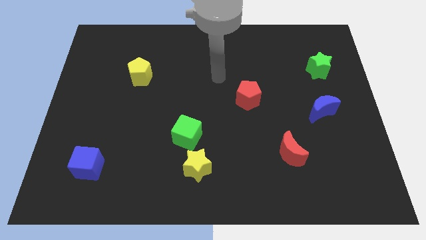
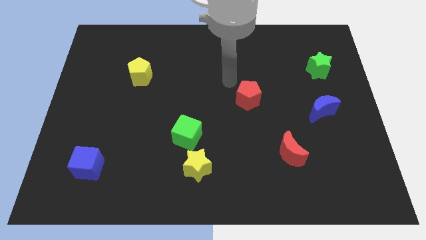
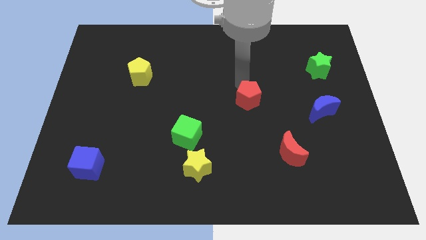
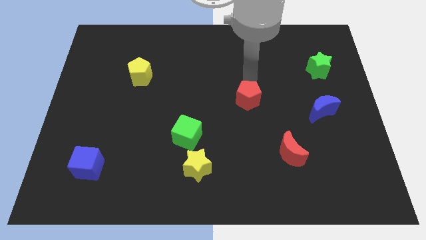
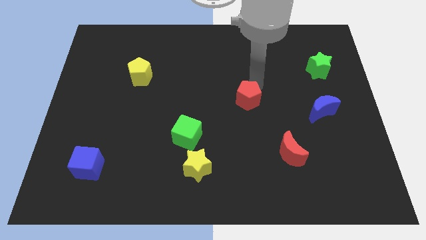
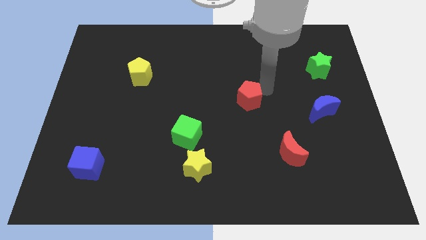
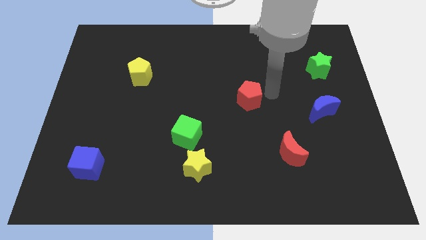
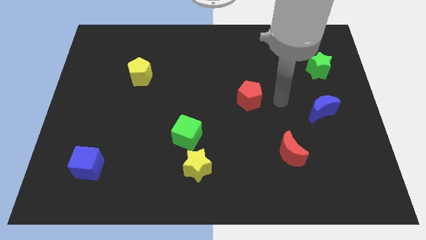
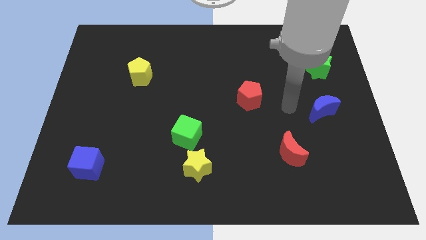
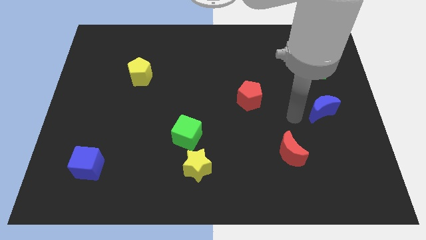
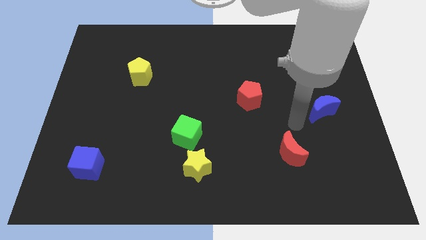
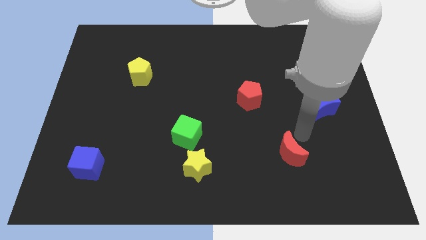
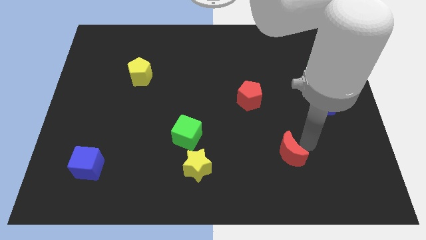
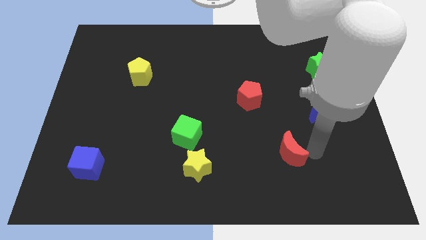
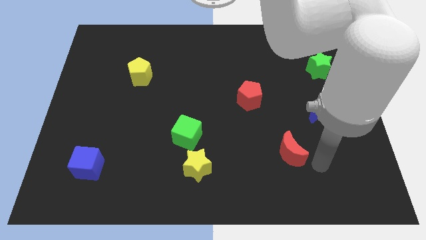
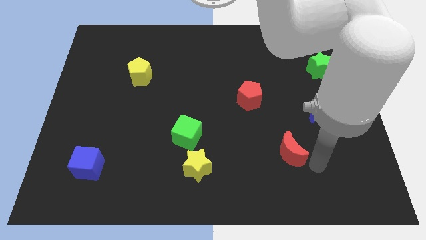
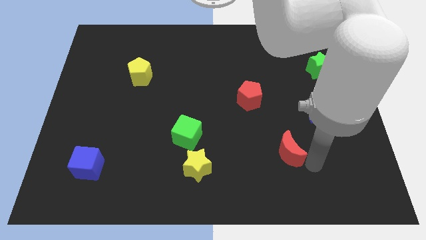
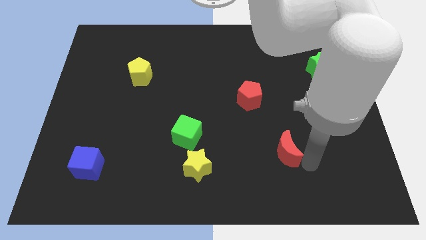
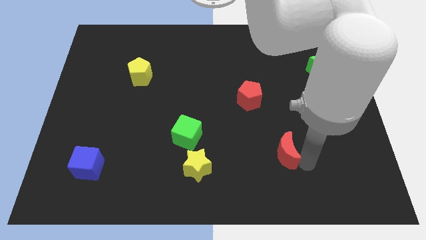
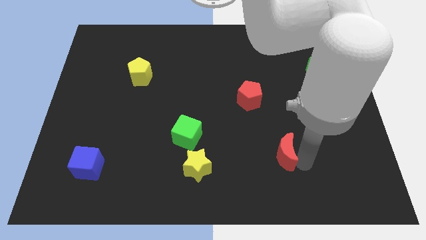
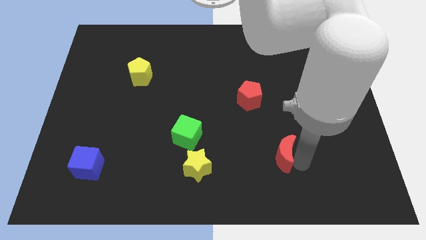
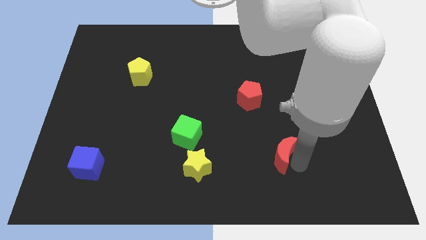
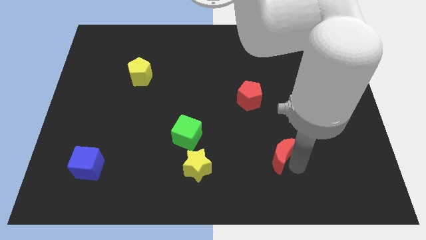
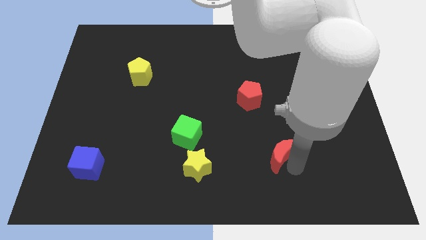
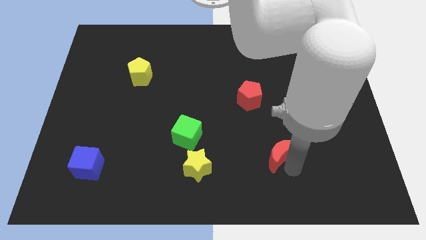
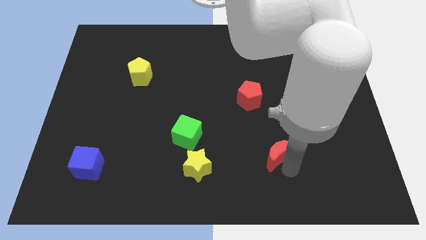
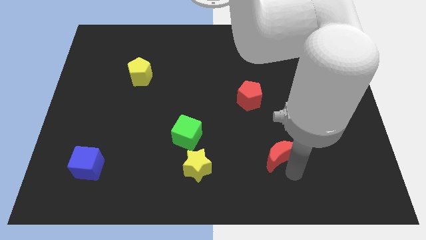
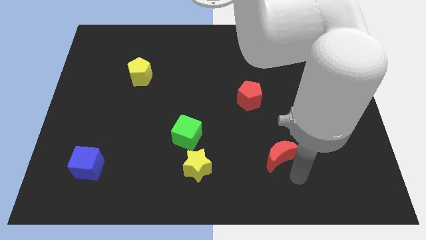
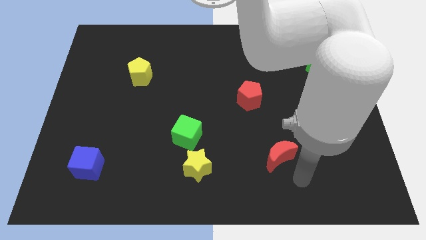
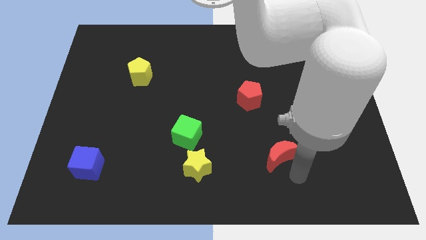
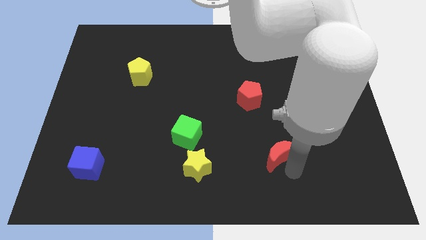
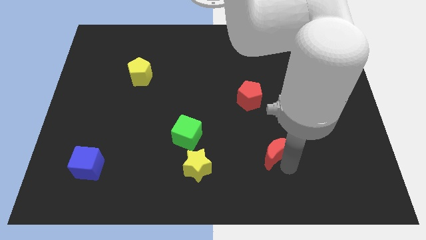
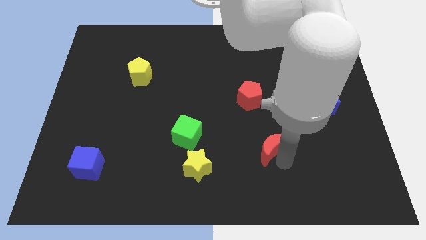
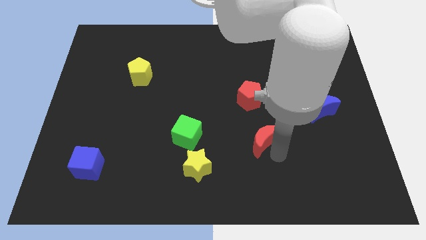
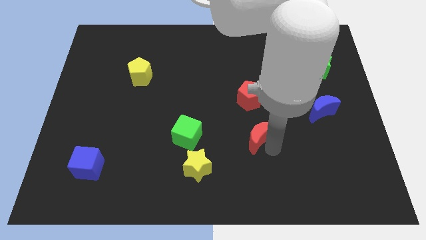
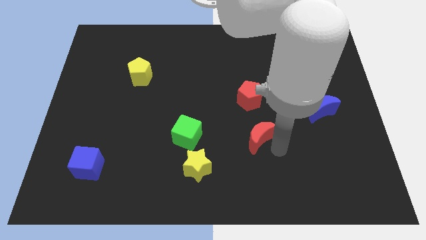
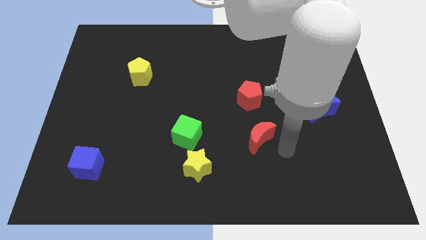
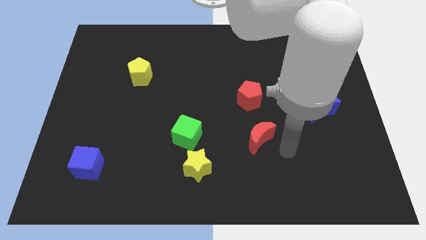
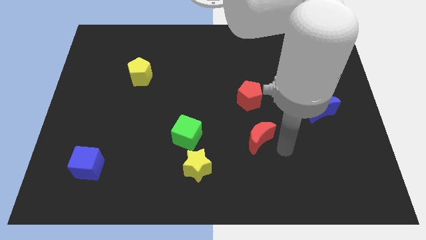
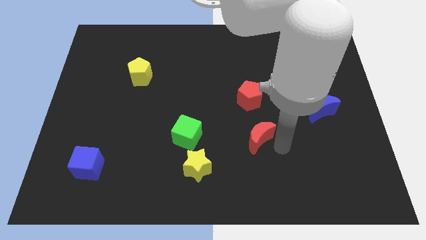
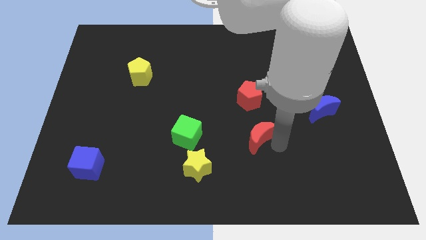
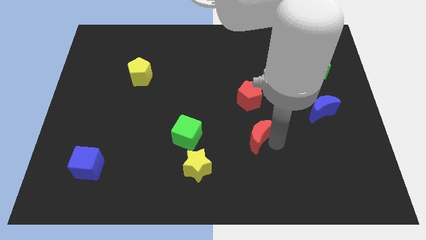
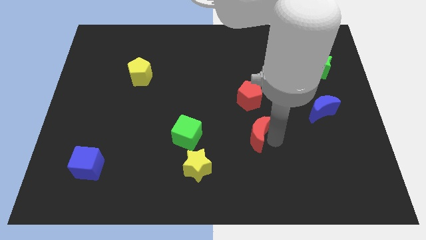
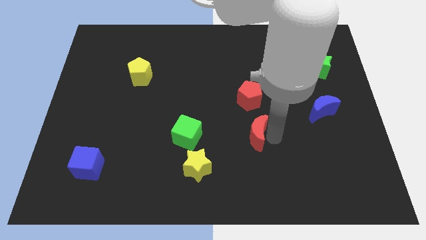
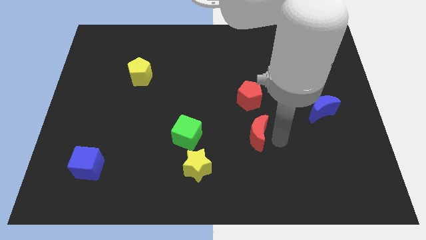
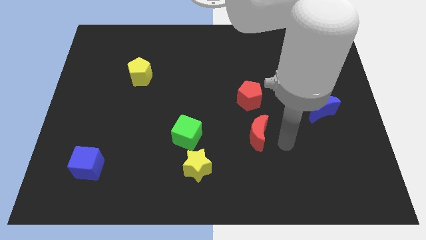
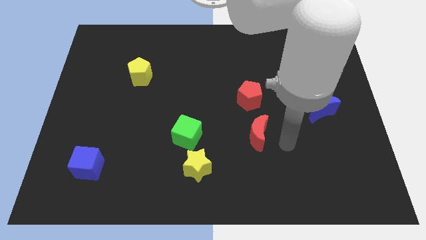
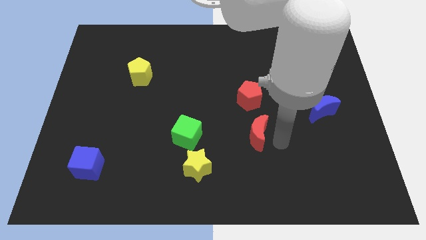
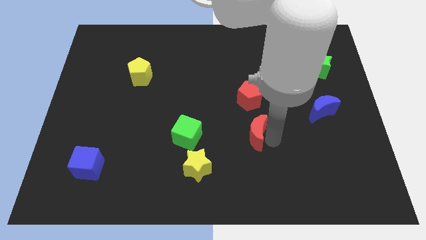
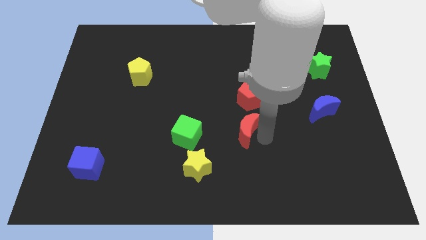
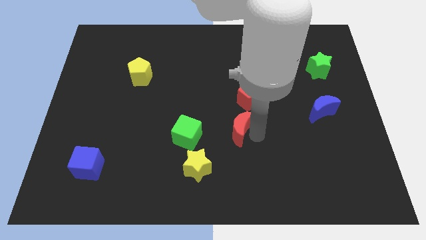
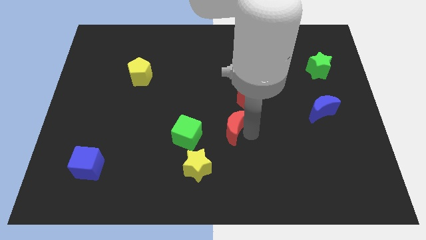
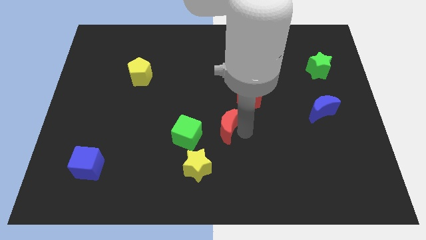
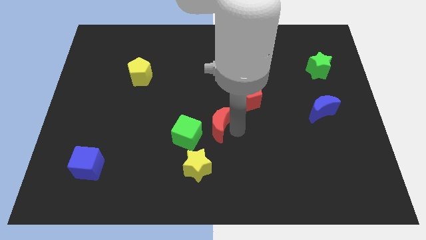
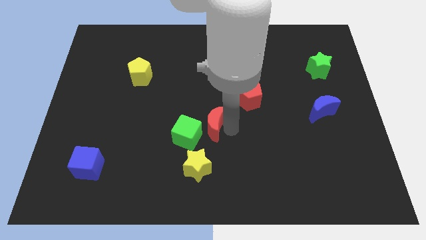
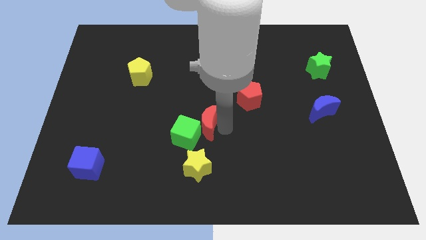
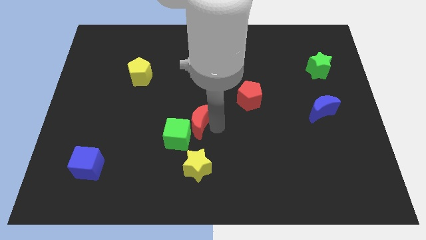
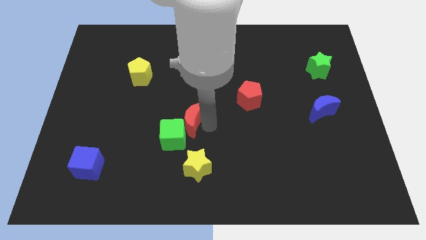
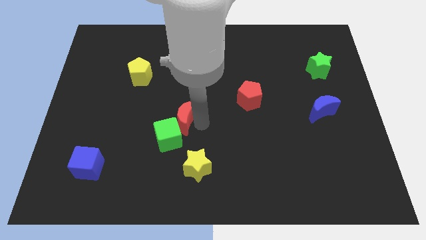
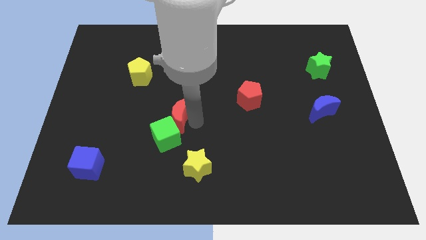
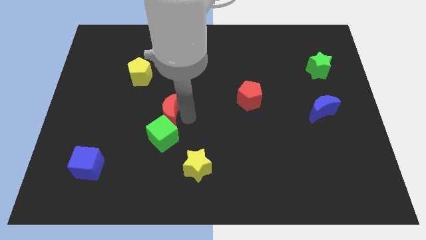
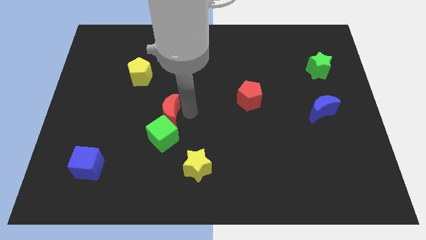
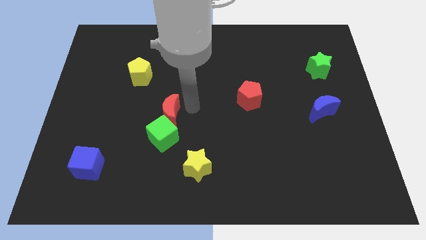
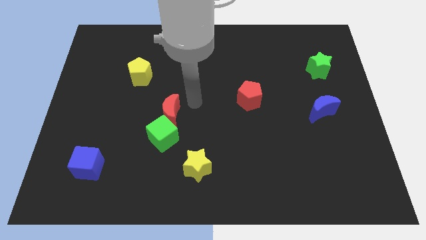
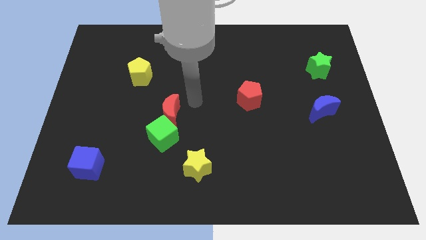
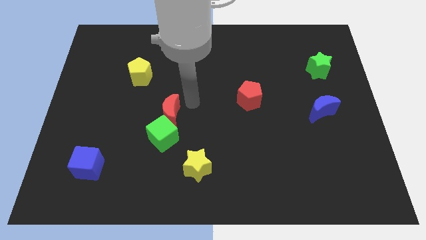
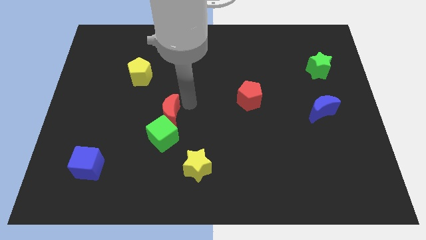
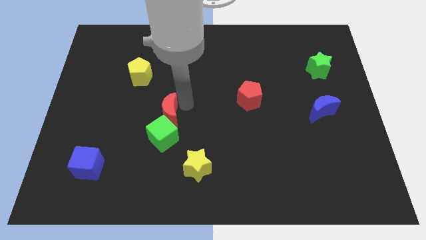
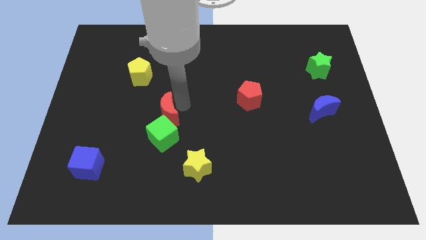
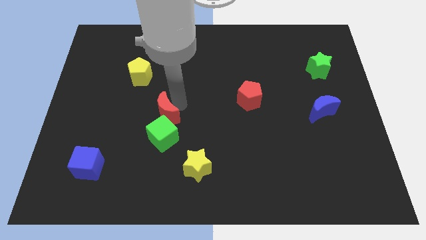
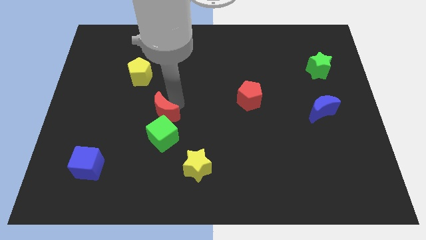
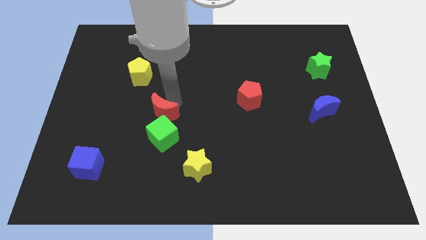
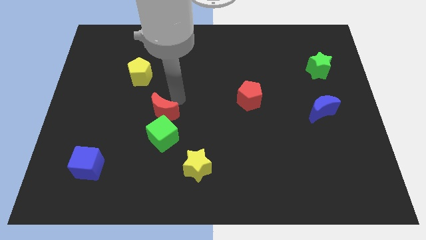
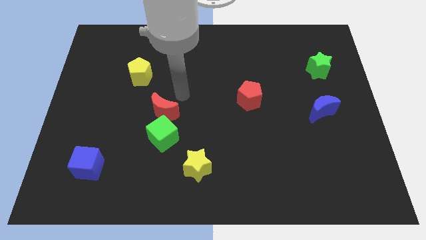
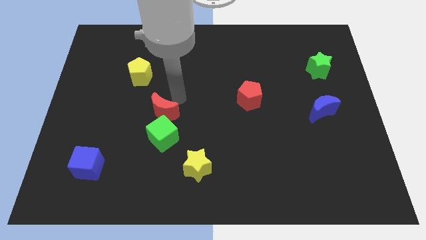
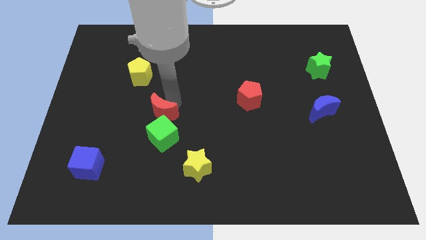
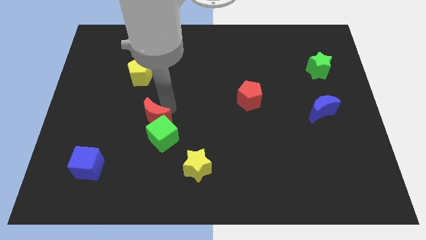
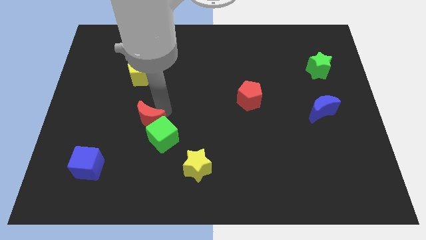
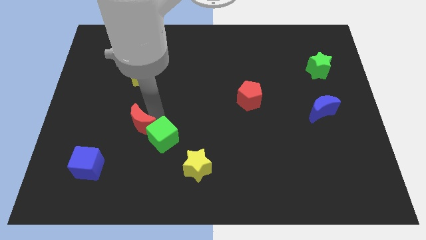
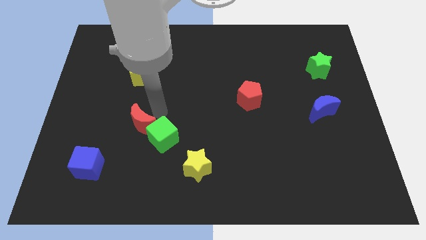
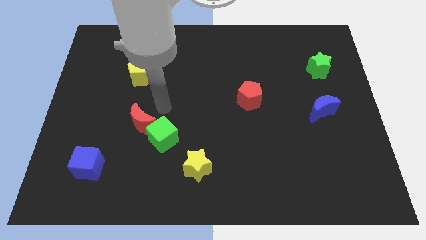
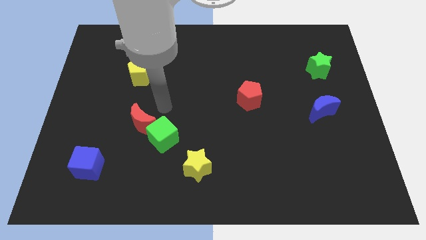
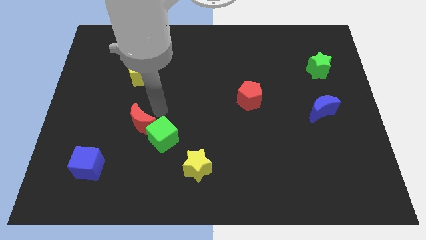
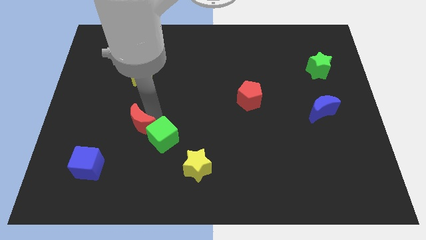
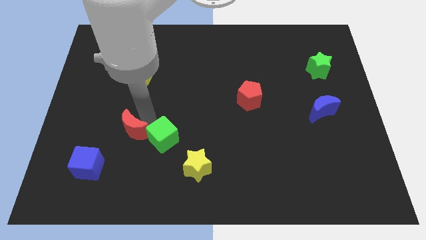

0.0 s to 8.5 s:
put the red moon to the top right of the blue cube
